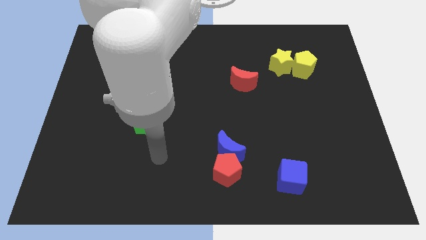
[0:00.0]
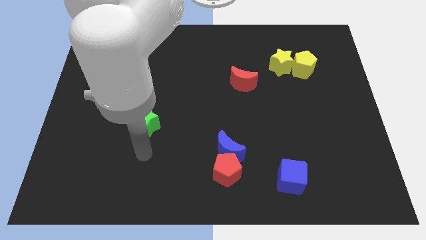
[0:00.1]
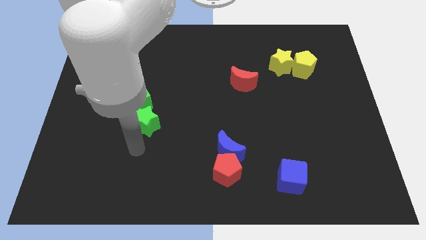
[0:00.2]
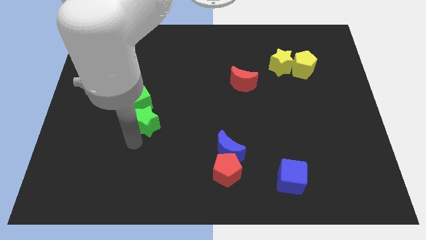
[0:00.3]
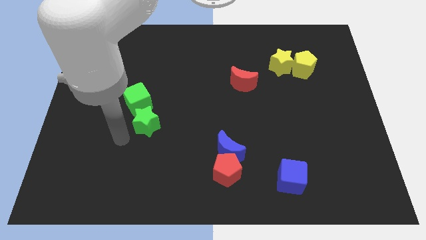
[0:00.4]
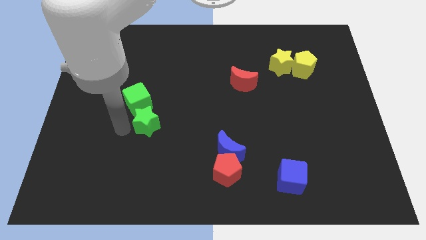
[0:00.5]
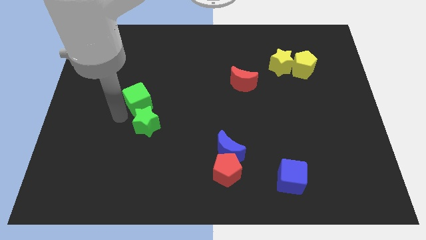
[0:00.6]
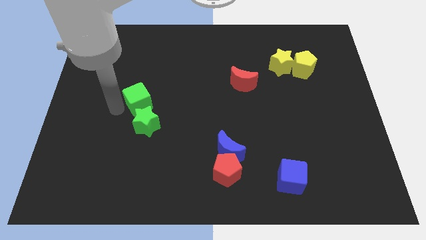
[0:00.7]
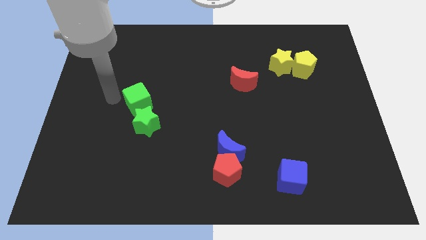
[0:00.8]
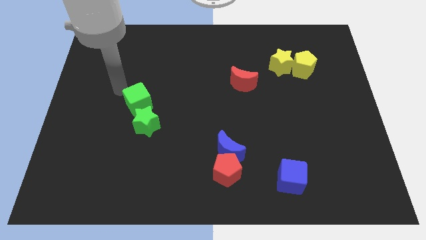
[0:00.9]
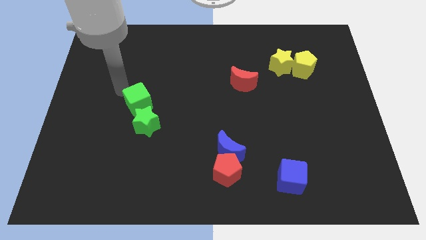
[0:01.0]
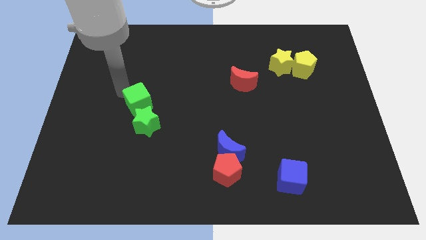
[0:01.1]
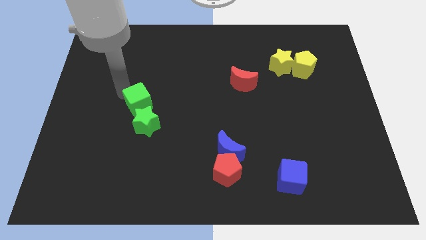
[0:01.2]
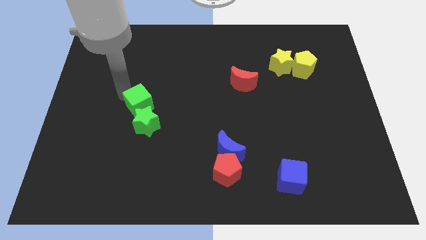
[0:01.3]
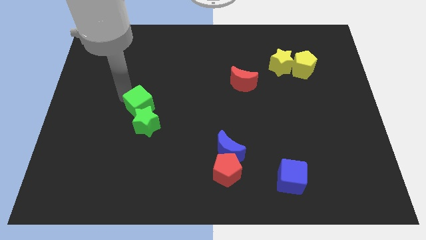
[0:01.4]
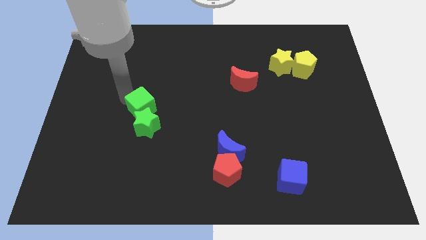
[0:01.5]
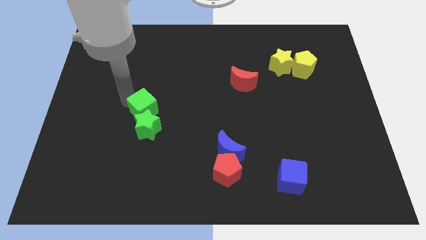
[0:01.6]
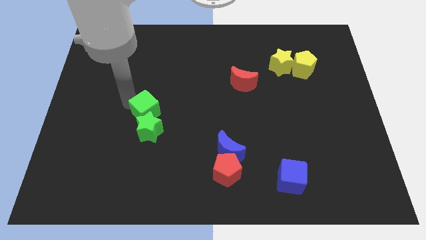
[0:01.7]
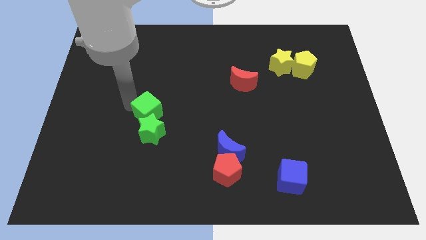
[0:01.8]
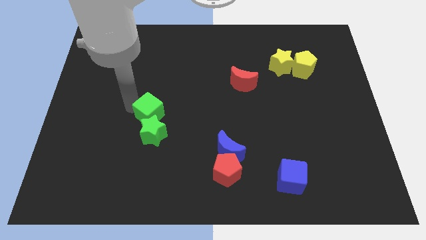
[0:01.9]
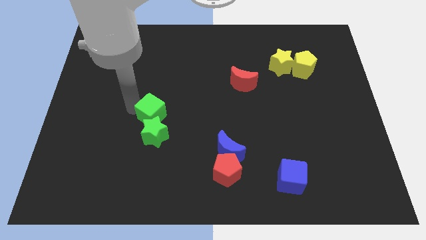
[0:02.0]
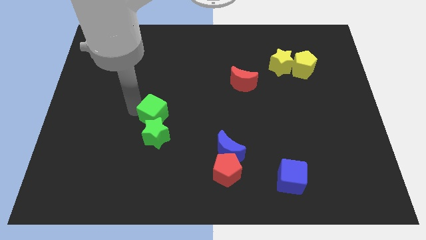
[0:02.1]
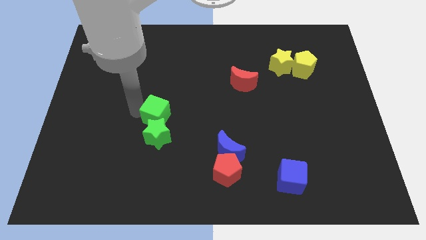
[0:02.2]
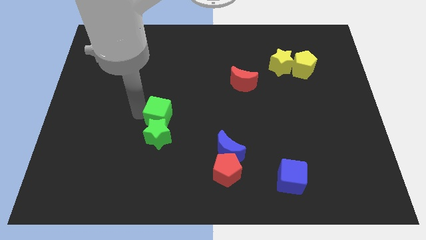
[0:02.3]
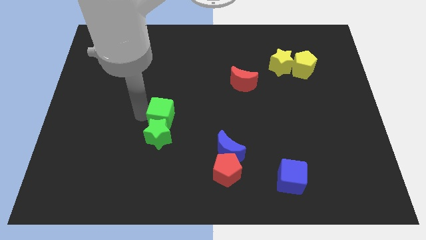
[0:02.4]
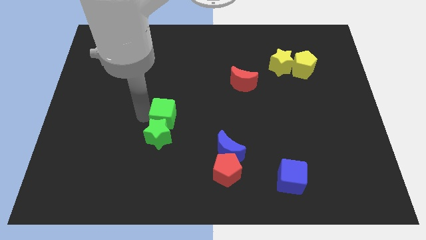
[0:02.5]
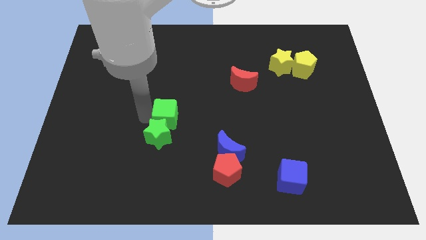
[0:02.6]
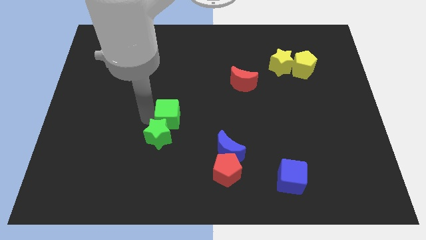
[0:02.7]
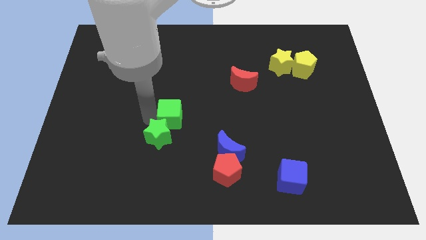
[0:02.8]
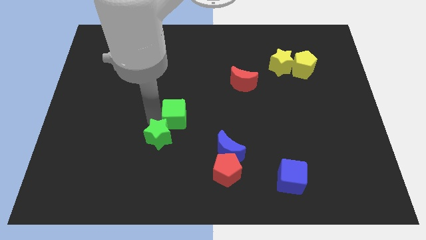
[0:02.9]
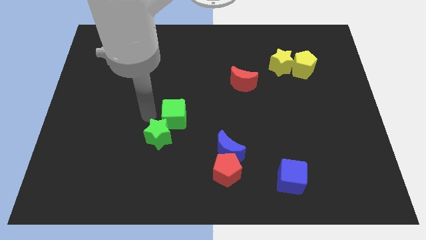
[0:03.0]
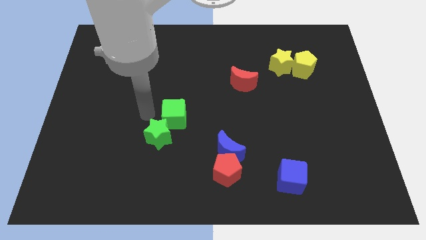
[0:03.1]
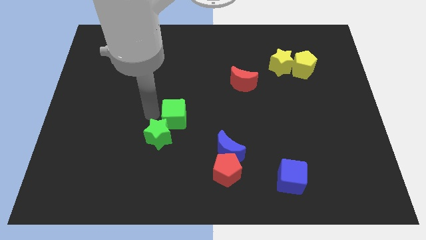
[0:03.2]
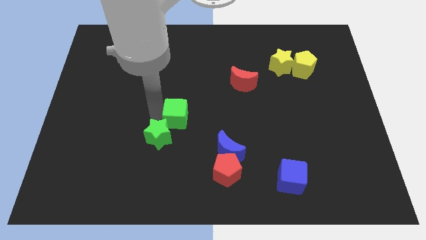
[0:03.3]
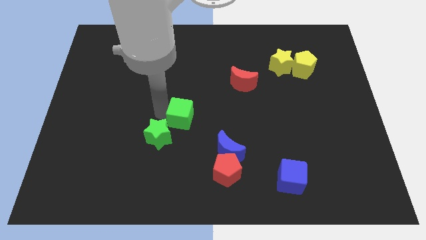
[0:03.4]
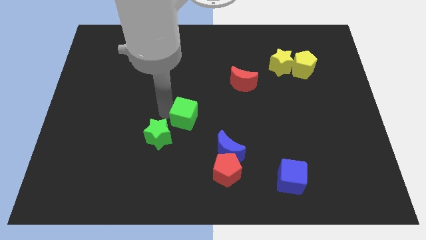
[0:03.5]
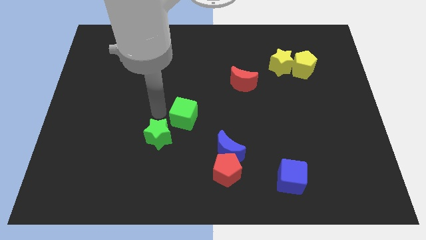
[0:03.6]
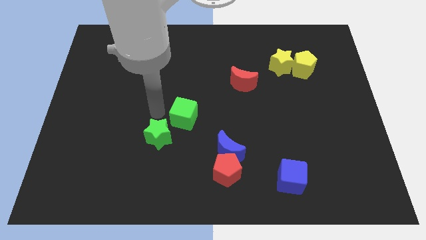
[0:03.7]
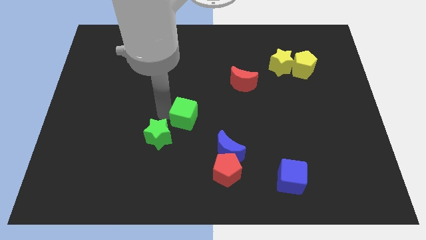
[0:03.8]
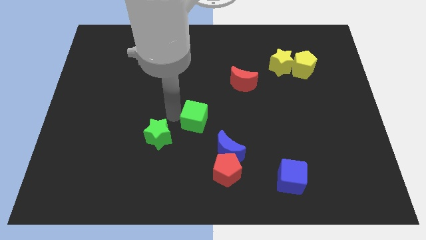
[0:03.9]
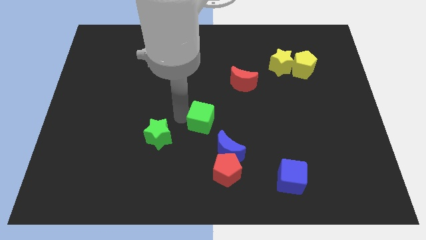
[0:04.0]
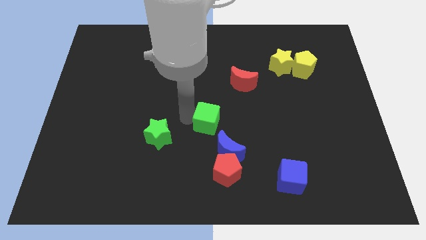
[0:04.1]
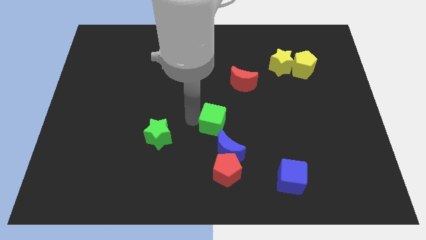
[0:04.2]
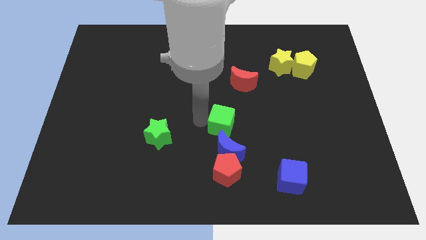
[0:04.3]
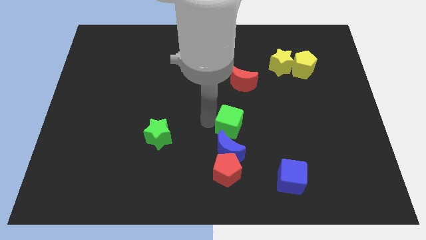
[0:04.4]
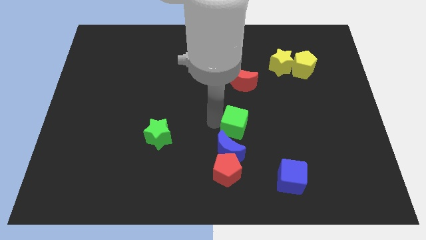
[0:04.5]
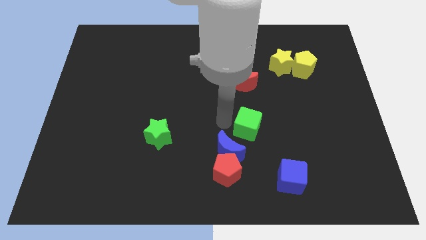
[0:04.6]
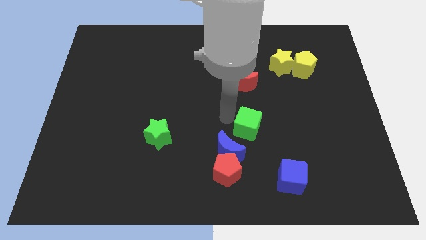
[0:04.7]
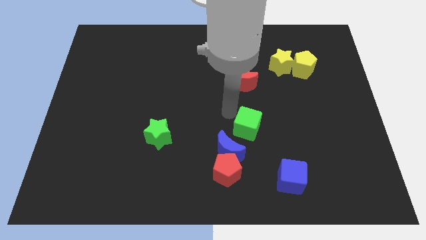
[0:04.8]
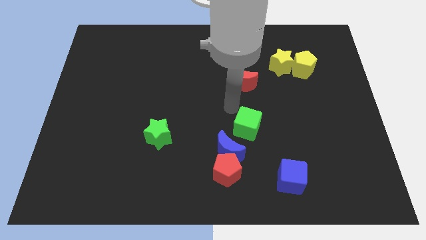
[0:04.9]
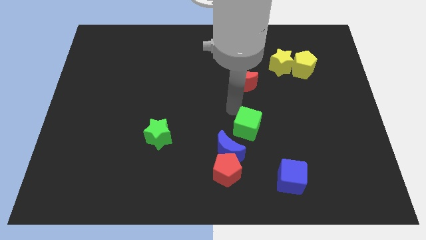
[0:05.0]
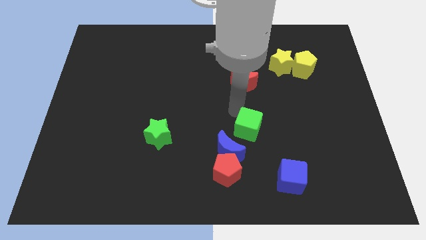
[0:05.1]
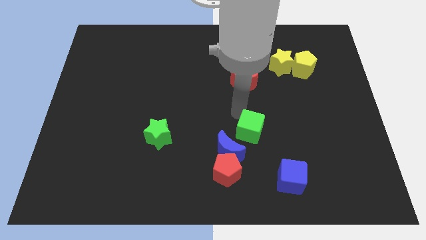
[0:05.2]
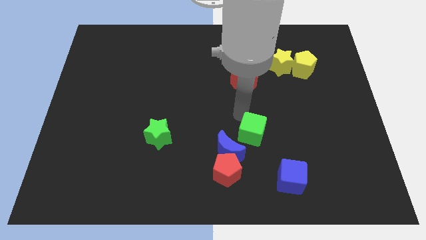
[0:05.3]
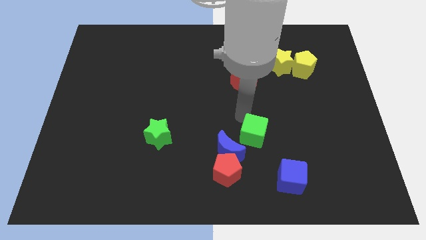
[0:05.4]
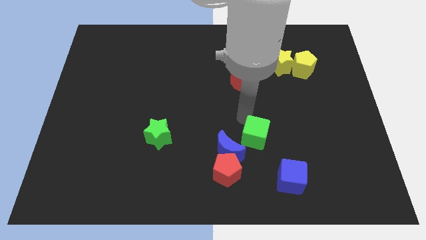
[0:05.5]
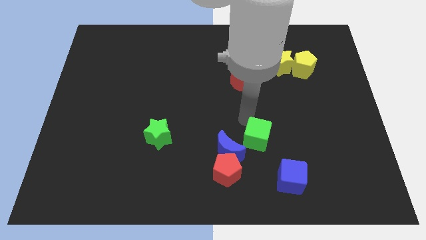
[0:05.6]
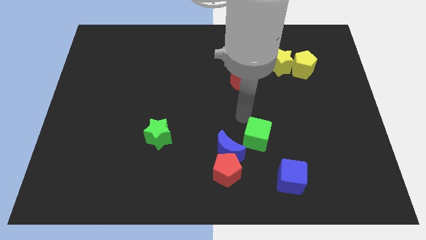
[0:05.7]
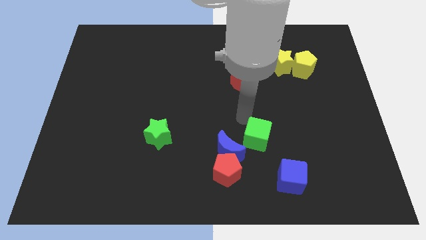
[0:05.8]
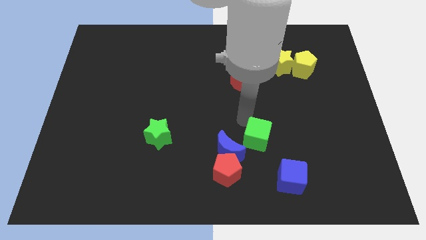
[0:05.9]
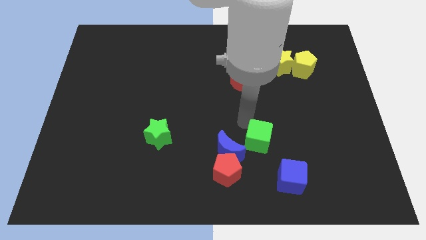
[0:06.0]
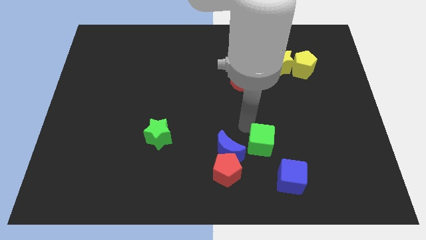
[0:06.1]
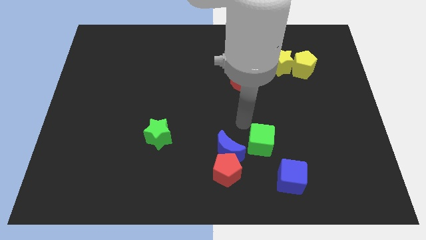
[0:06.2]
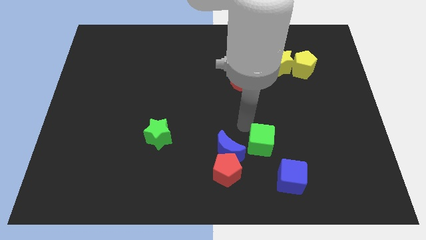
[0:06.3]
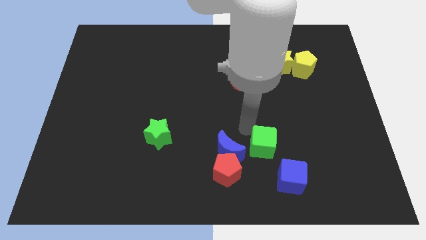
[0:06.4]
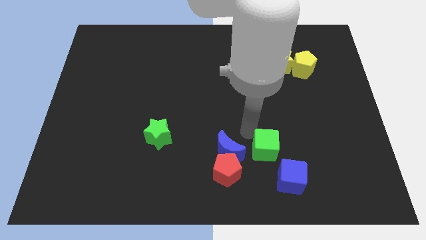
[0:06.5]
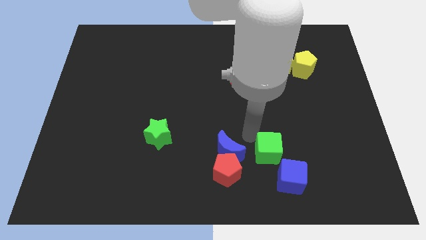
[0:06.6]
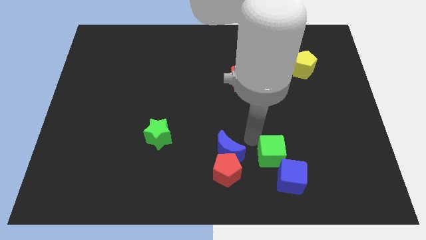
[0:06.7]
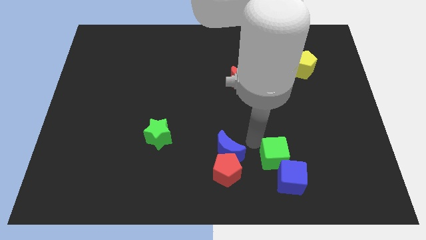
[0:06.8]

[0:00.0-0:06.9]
move the green cube close to the blue cube
